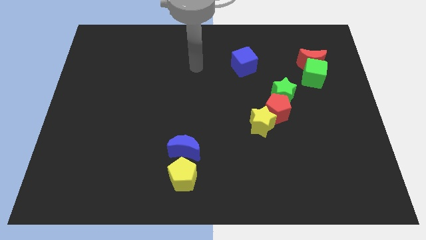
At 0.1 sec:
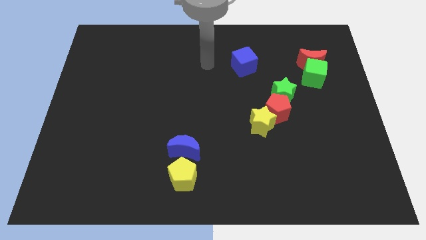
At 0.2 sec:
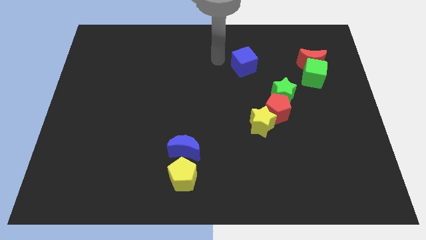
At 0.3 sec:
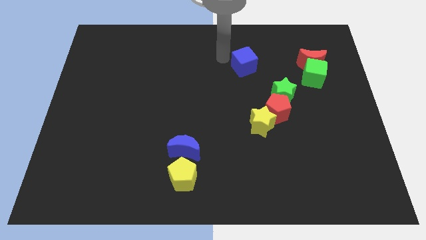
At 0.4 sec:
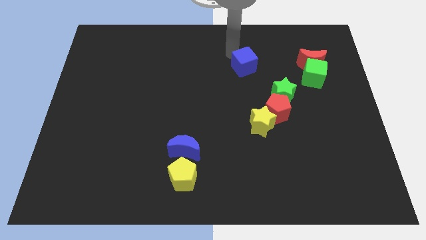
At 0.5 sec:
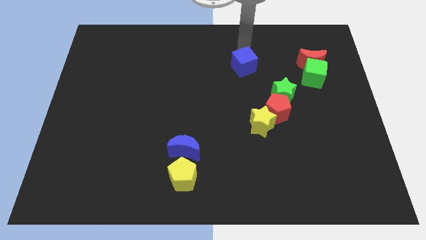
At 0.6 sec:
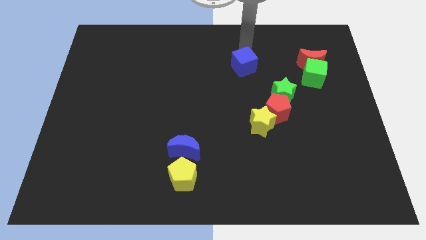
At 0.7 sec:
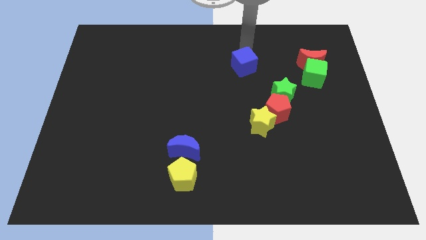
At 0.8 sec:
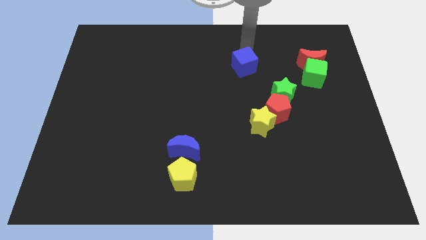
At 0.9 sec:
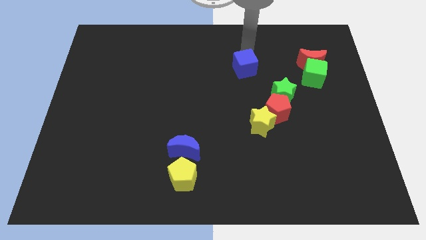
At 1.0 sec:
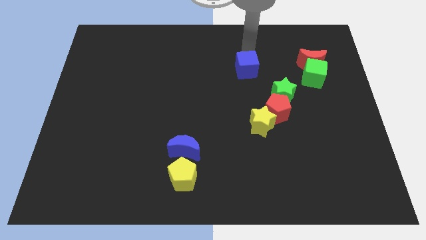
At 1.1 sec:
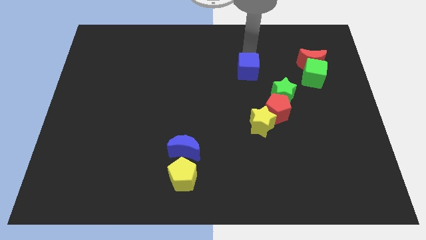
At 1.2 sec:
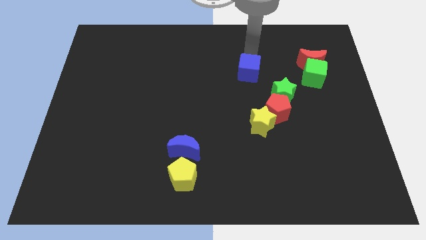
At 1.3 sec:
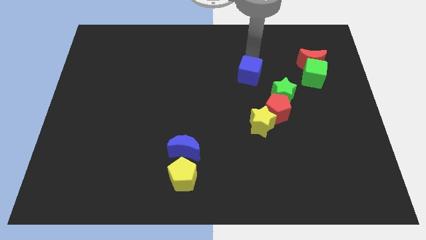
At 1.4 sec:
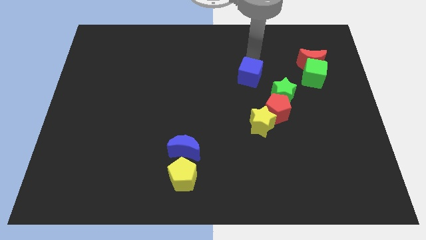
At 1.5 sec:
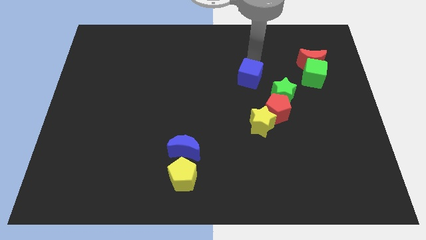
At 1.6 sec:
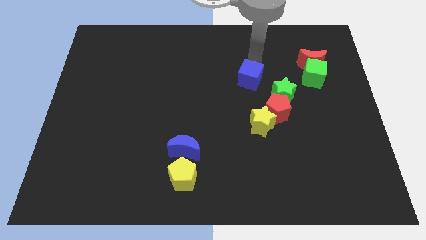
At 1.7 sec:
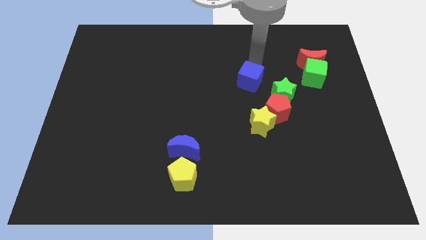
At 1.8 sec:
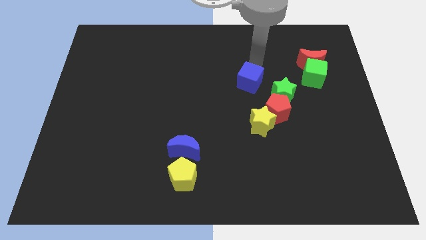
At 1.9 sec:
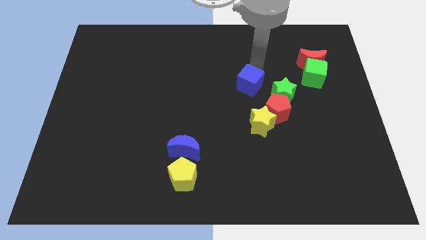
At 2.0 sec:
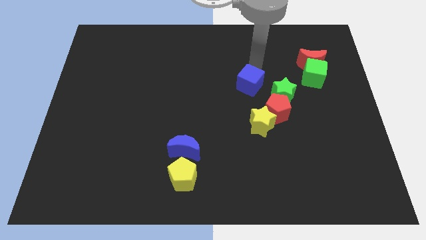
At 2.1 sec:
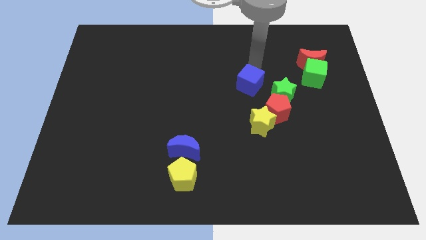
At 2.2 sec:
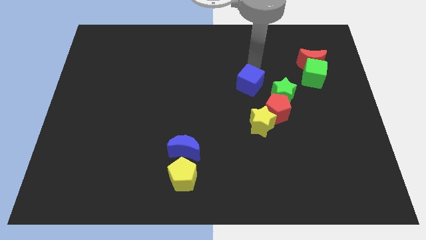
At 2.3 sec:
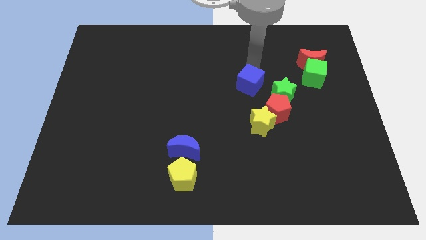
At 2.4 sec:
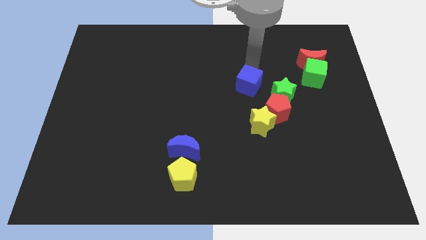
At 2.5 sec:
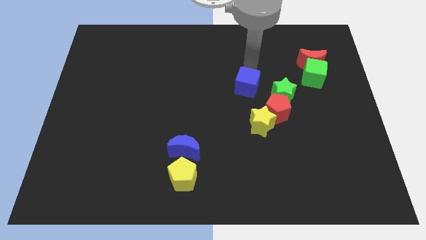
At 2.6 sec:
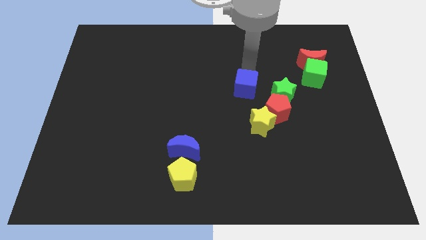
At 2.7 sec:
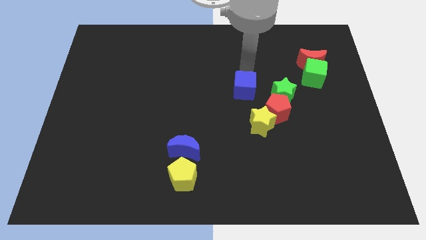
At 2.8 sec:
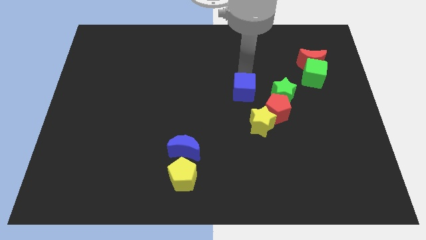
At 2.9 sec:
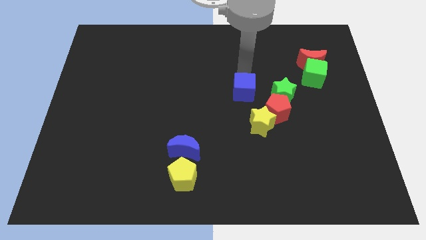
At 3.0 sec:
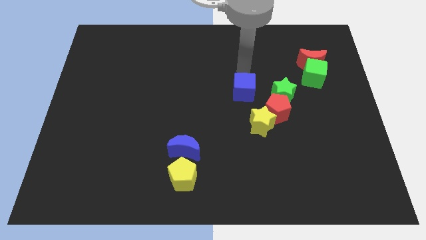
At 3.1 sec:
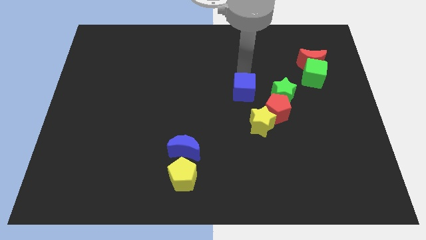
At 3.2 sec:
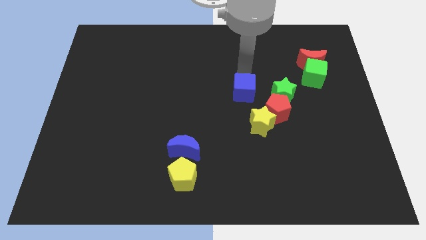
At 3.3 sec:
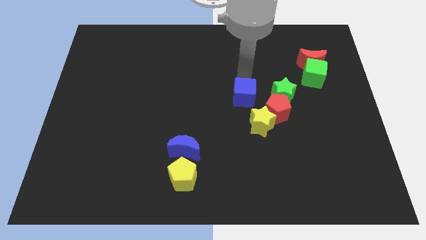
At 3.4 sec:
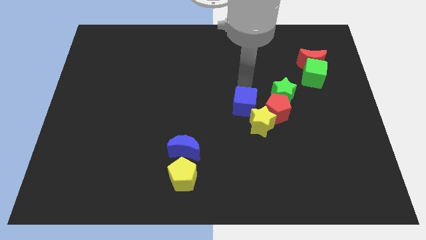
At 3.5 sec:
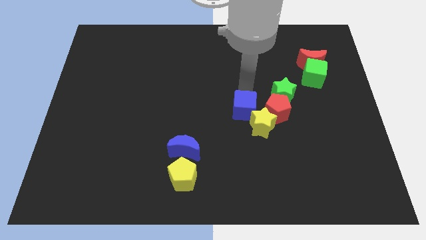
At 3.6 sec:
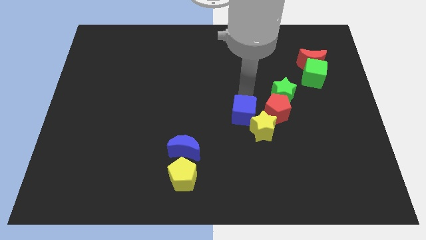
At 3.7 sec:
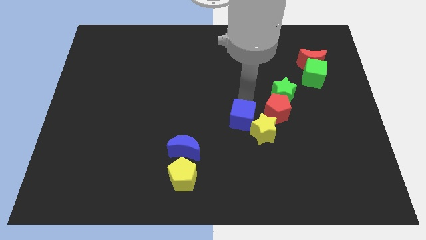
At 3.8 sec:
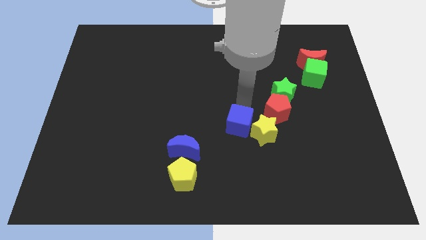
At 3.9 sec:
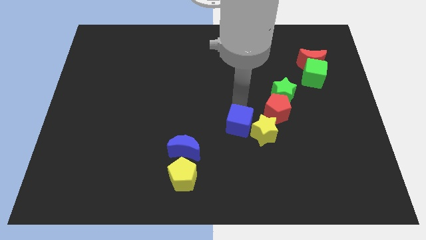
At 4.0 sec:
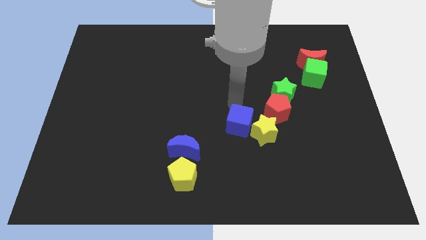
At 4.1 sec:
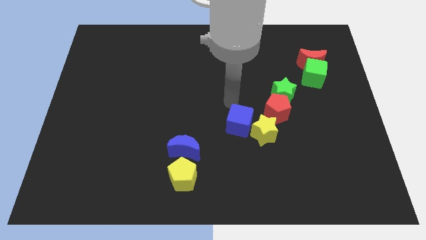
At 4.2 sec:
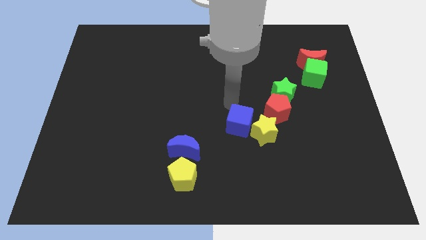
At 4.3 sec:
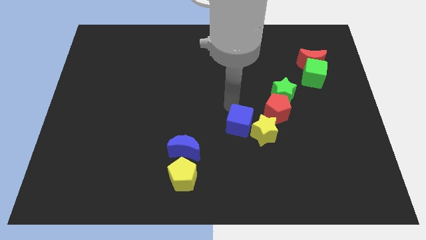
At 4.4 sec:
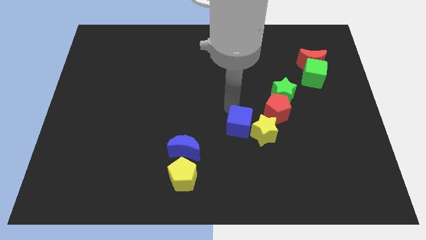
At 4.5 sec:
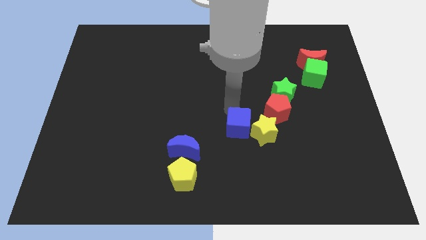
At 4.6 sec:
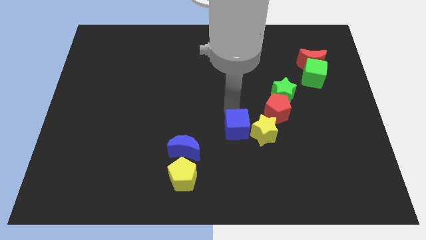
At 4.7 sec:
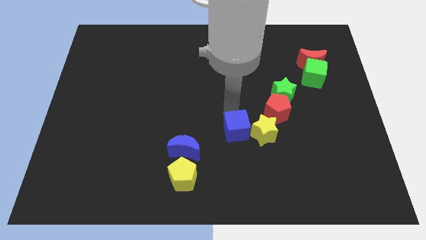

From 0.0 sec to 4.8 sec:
push the blue cube down

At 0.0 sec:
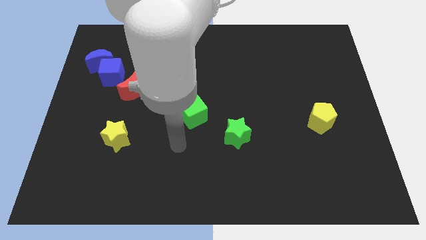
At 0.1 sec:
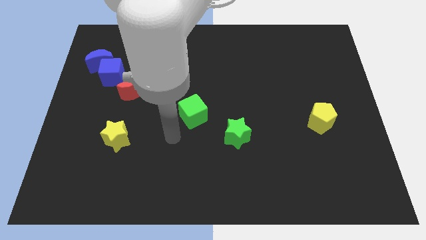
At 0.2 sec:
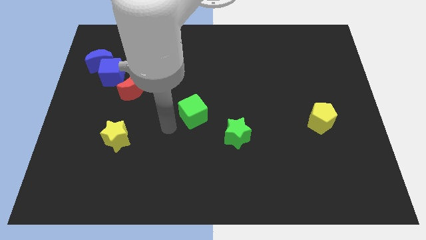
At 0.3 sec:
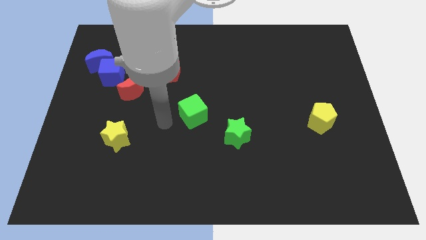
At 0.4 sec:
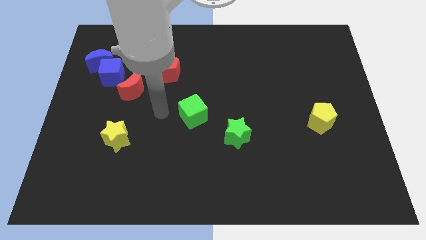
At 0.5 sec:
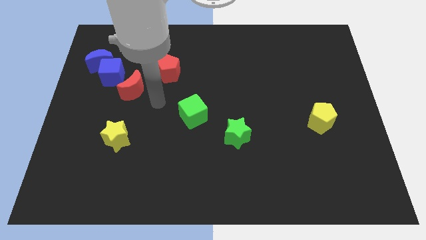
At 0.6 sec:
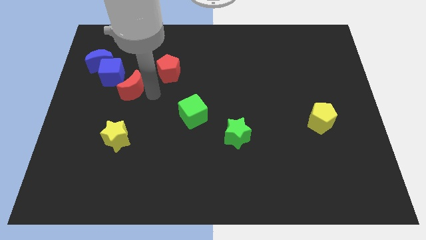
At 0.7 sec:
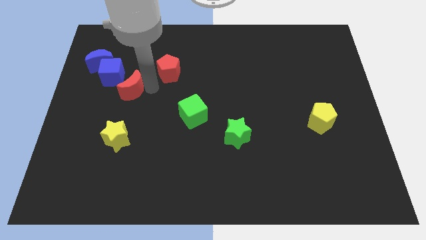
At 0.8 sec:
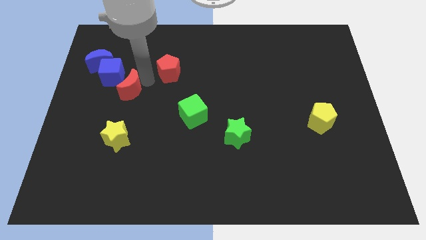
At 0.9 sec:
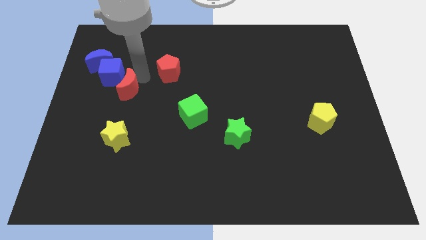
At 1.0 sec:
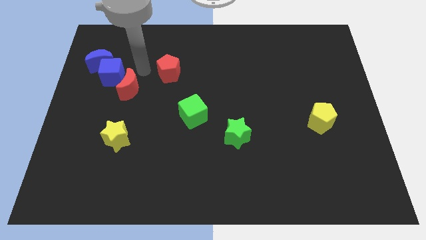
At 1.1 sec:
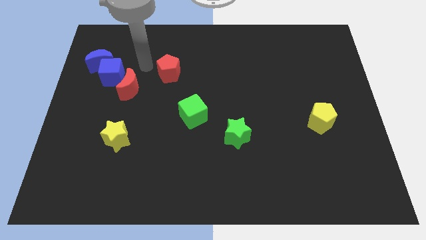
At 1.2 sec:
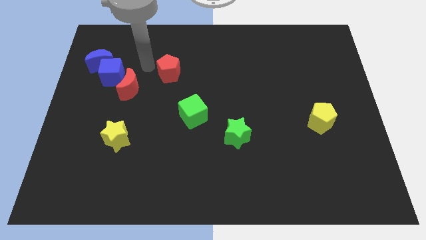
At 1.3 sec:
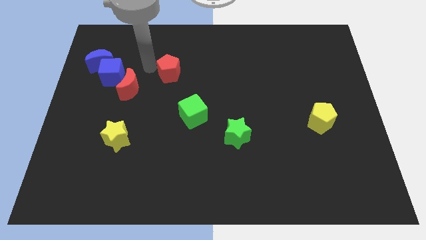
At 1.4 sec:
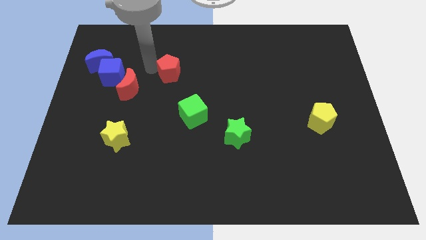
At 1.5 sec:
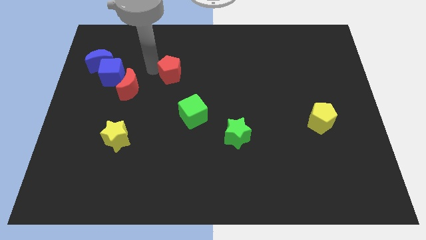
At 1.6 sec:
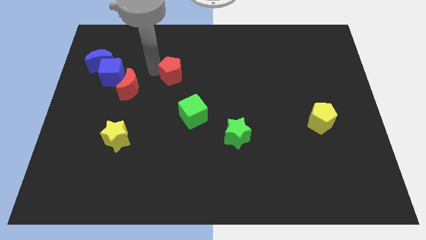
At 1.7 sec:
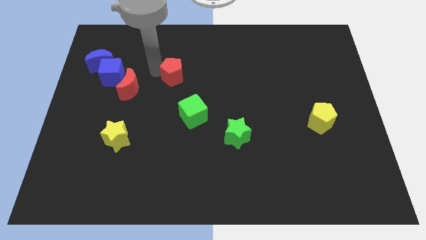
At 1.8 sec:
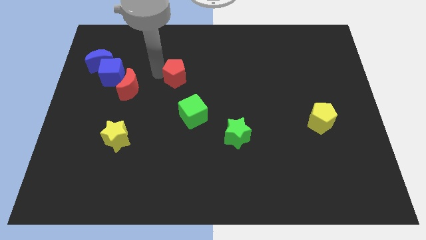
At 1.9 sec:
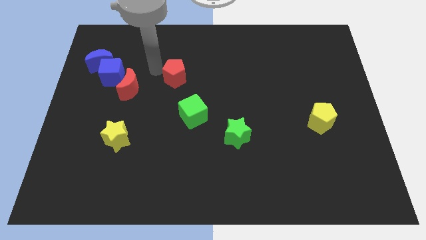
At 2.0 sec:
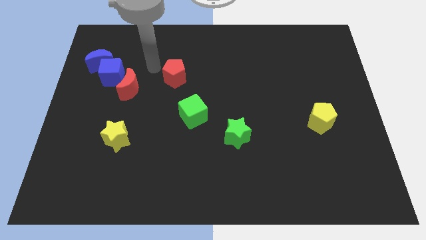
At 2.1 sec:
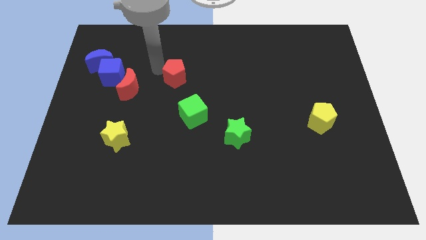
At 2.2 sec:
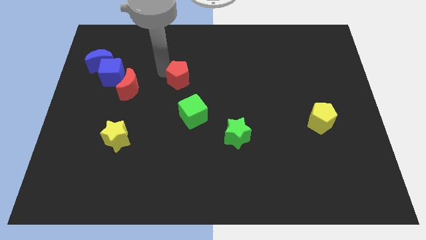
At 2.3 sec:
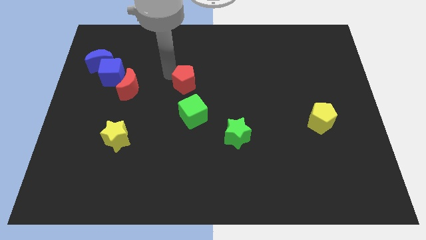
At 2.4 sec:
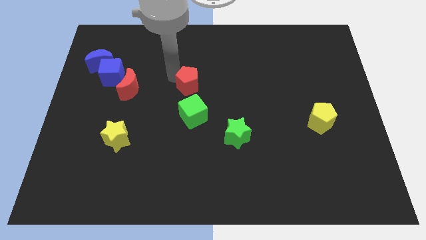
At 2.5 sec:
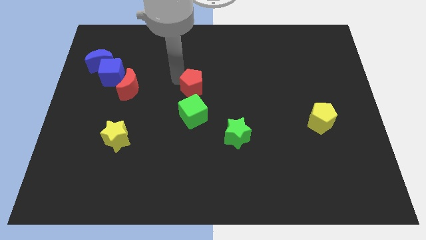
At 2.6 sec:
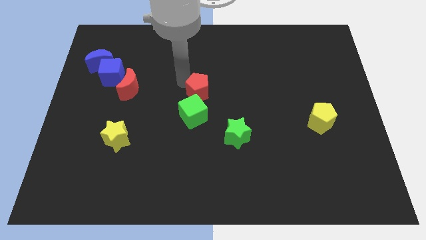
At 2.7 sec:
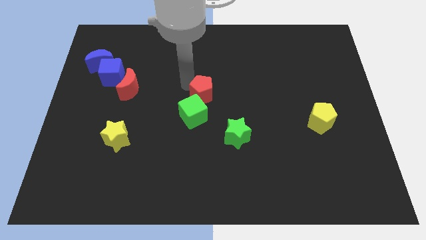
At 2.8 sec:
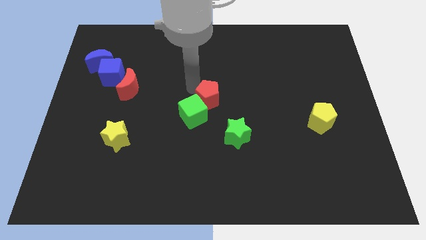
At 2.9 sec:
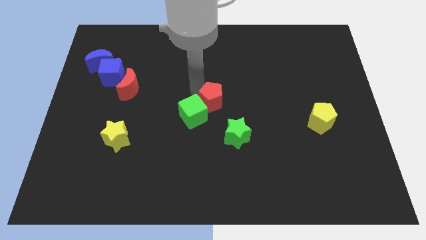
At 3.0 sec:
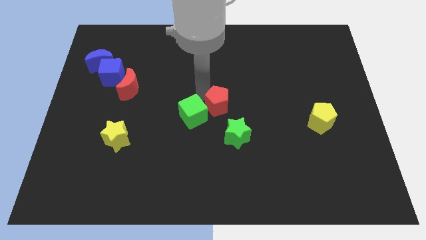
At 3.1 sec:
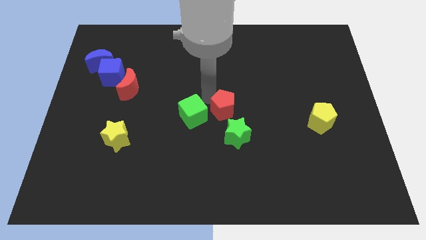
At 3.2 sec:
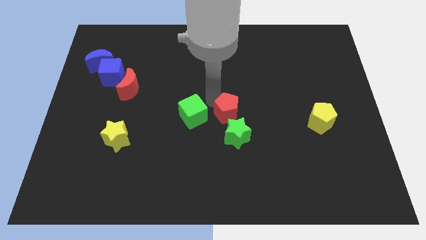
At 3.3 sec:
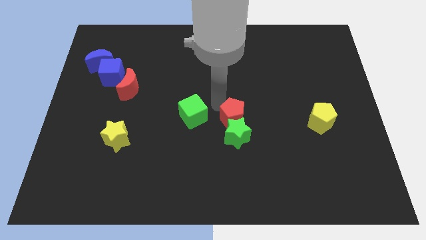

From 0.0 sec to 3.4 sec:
push the red pentagon downwards and to the right diagonally
